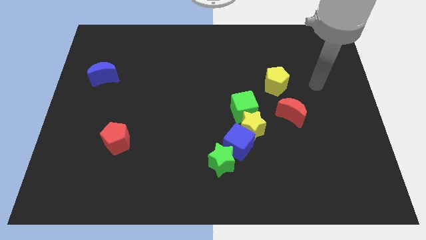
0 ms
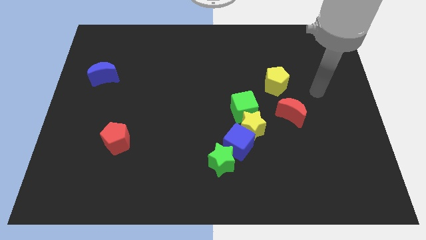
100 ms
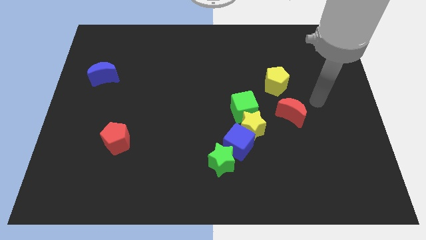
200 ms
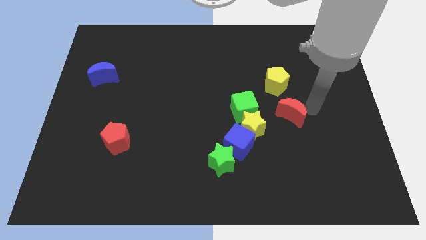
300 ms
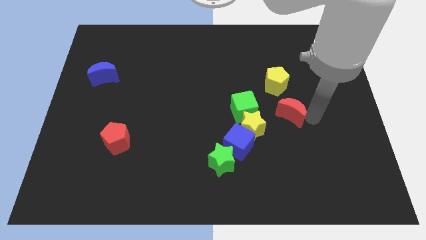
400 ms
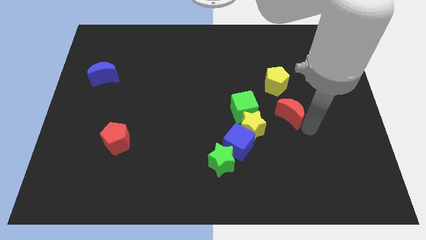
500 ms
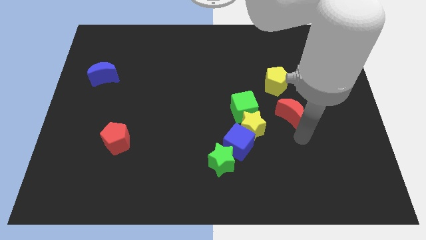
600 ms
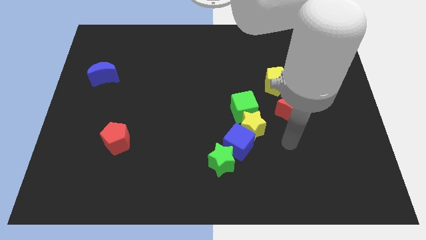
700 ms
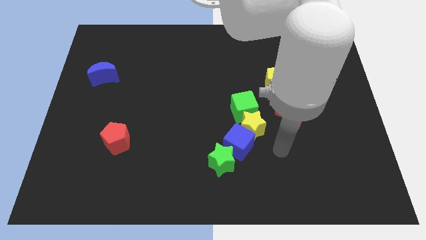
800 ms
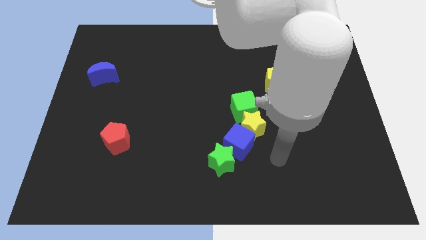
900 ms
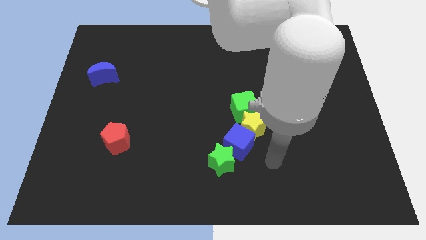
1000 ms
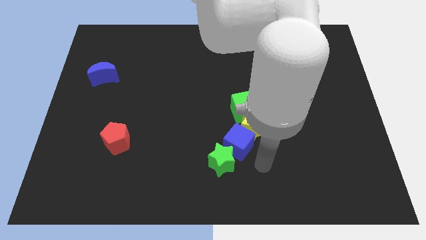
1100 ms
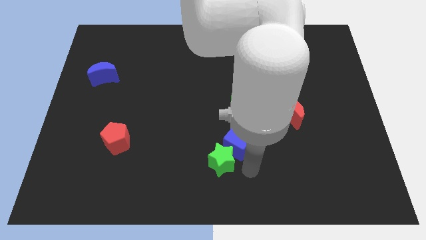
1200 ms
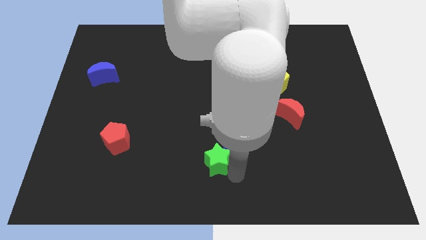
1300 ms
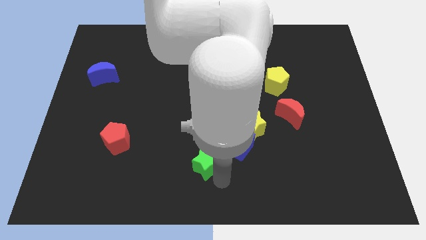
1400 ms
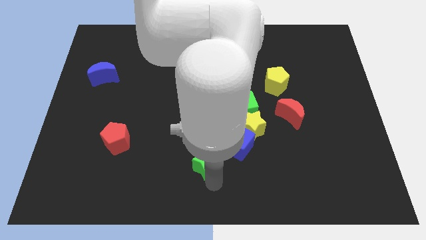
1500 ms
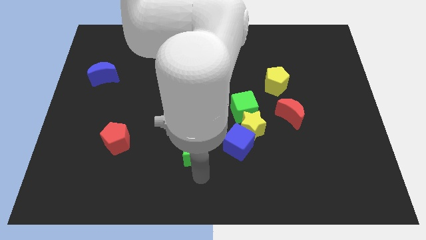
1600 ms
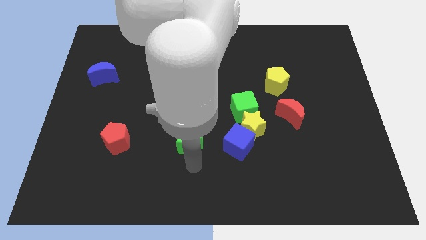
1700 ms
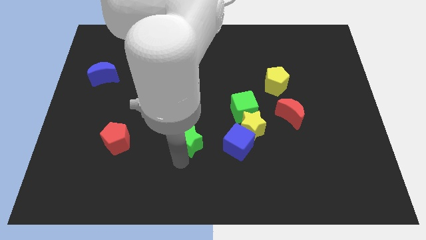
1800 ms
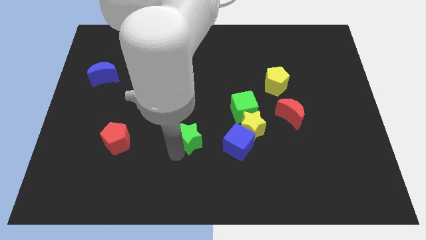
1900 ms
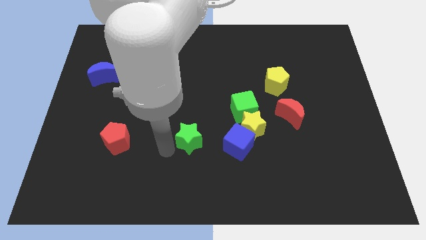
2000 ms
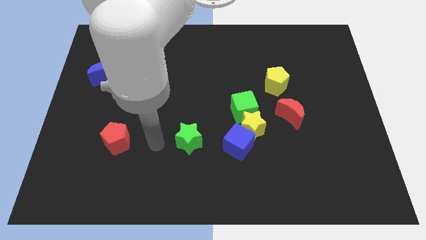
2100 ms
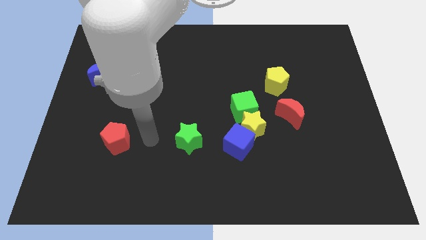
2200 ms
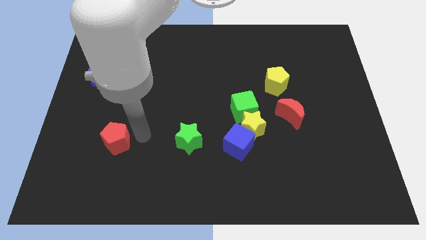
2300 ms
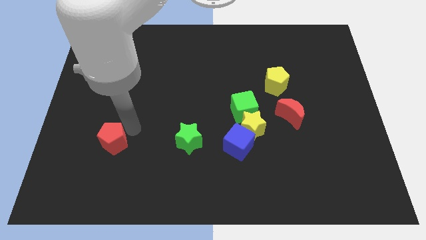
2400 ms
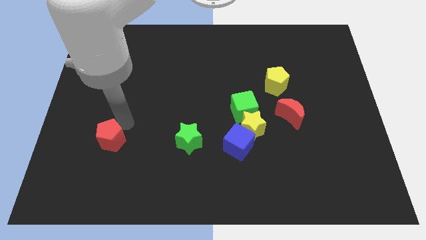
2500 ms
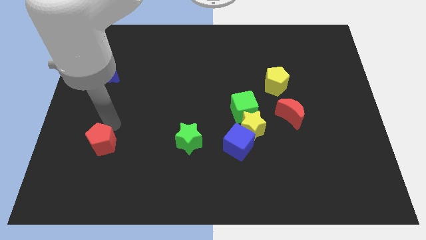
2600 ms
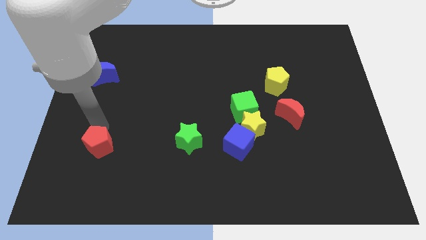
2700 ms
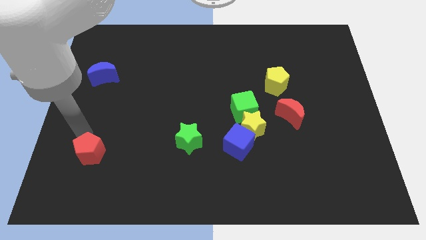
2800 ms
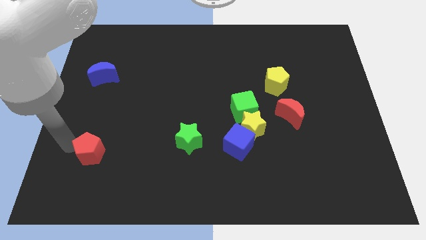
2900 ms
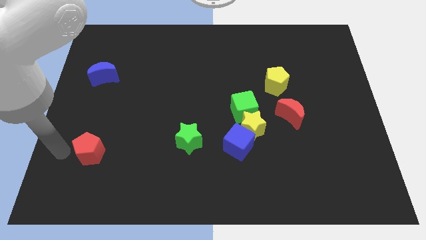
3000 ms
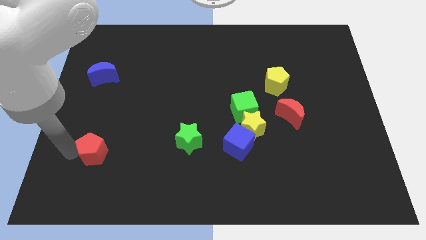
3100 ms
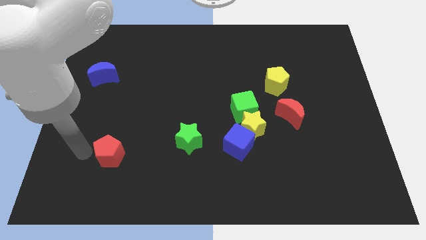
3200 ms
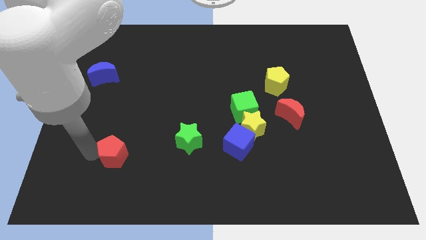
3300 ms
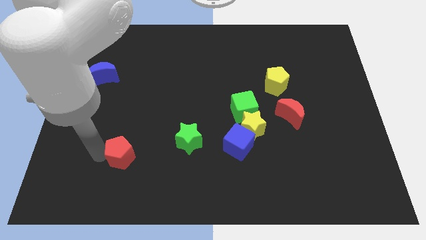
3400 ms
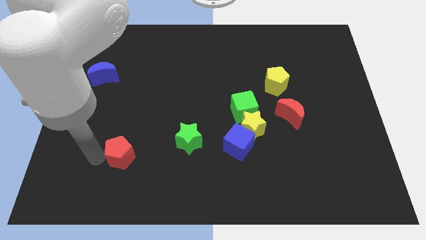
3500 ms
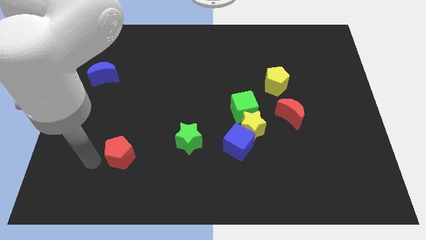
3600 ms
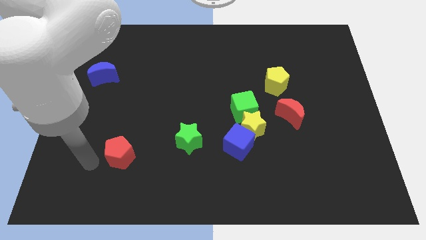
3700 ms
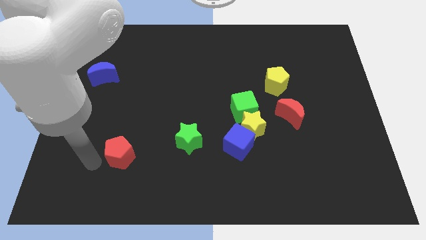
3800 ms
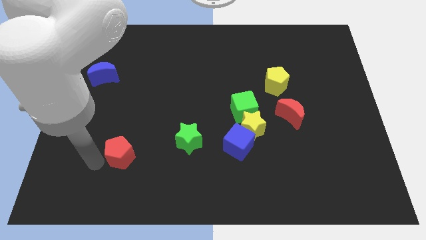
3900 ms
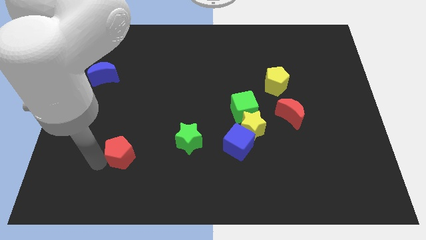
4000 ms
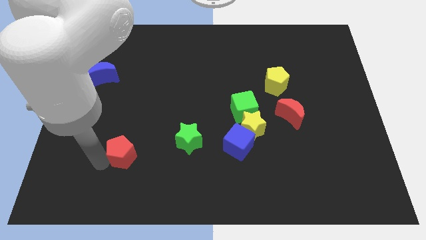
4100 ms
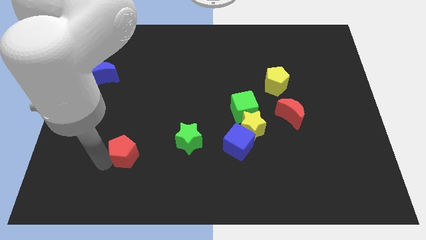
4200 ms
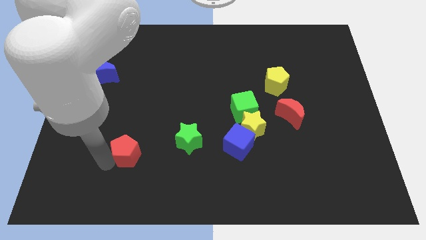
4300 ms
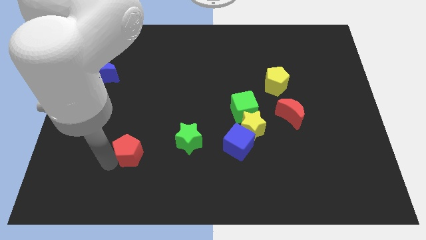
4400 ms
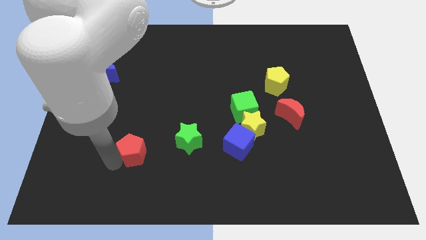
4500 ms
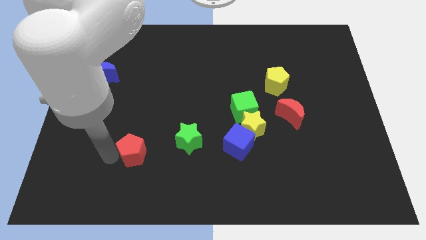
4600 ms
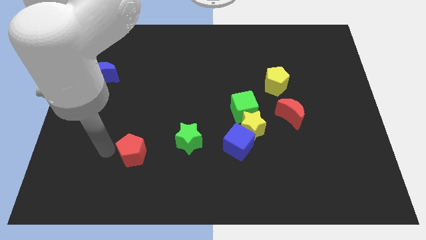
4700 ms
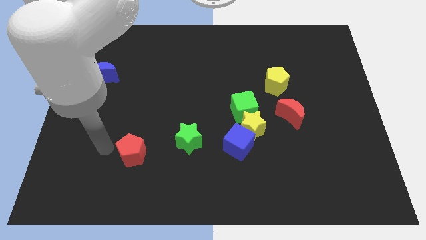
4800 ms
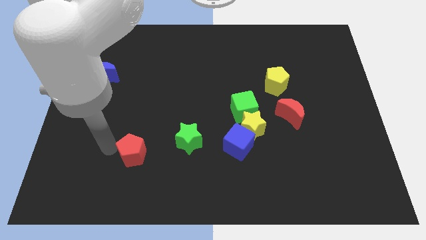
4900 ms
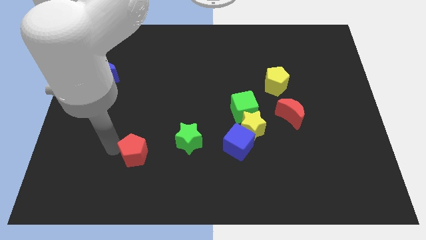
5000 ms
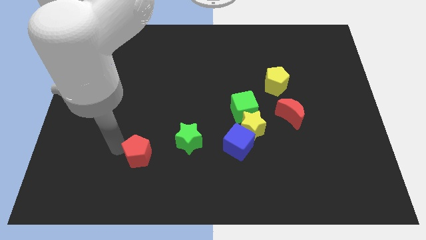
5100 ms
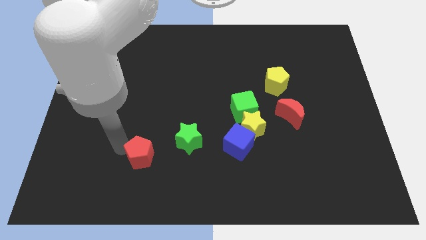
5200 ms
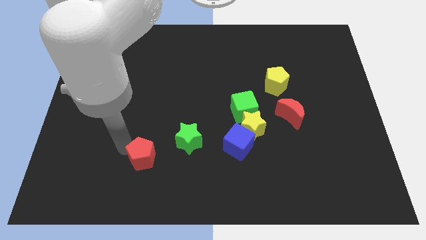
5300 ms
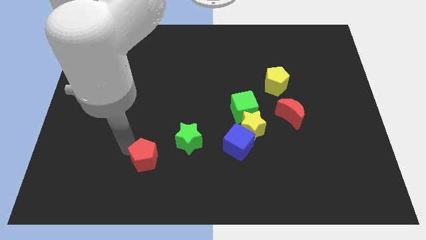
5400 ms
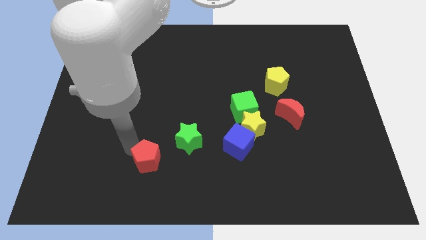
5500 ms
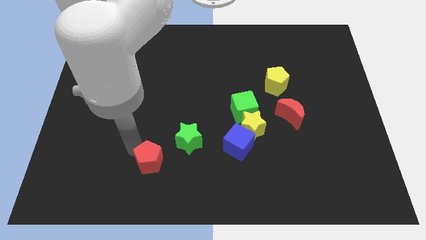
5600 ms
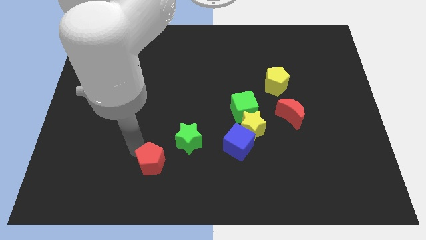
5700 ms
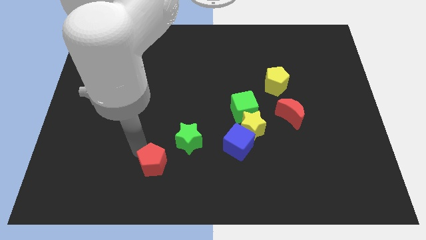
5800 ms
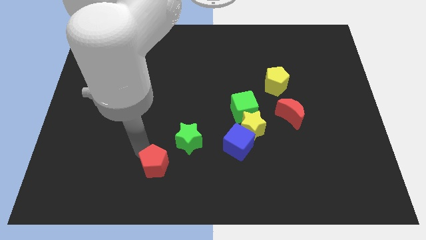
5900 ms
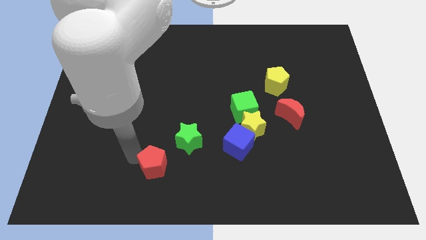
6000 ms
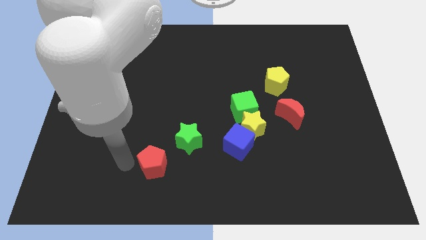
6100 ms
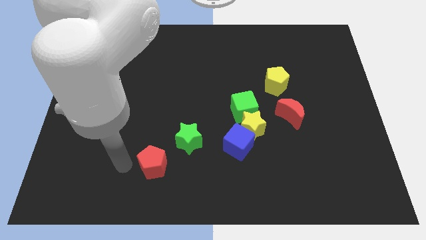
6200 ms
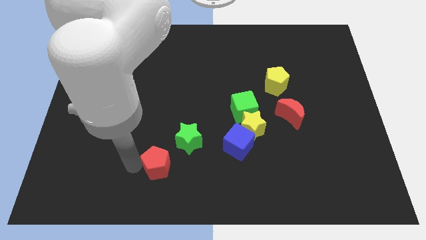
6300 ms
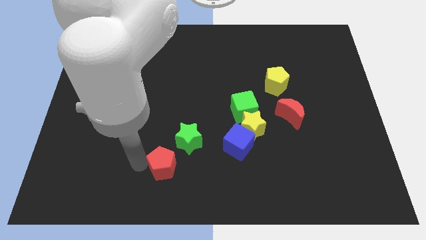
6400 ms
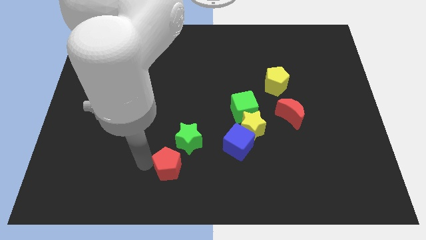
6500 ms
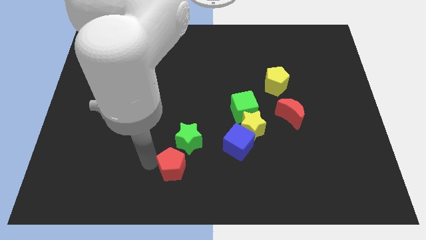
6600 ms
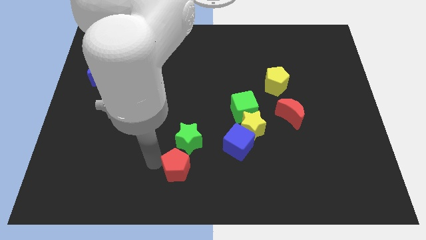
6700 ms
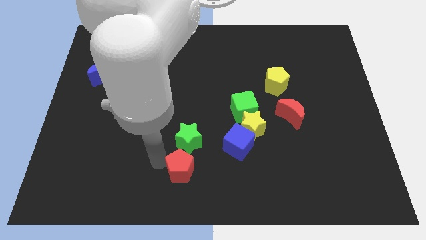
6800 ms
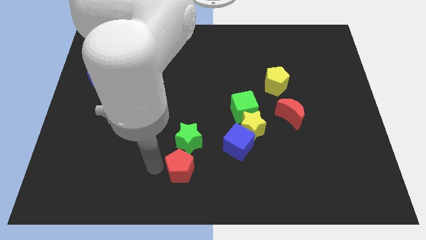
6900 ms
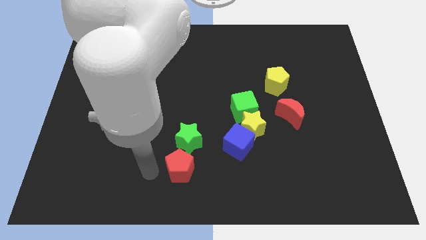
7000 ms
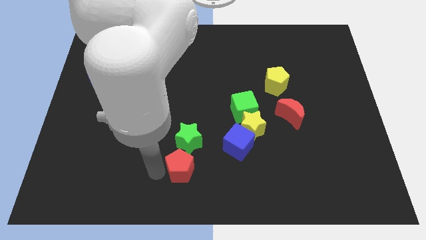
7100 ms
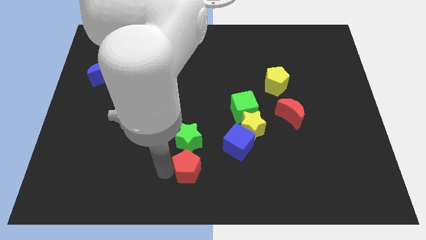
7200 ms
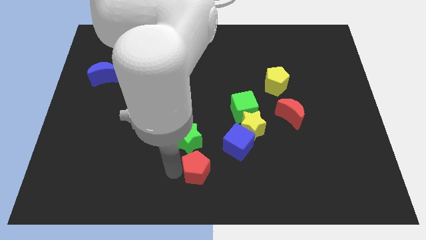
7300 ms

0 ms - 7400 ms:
slide the red pentagon to the bottom left side of the blue cube

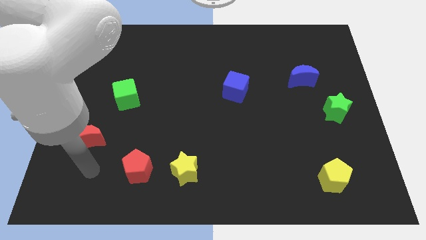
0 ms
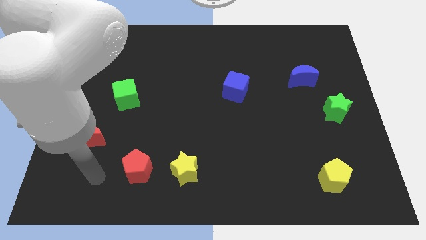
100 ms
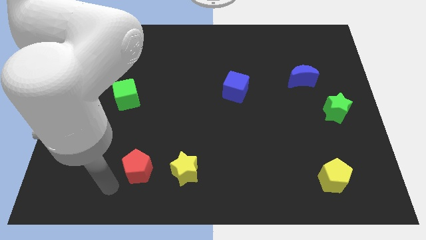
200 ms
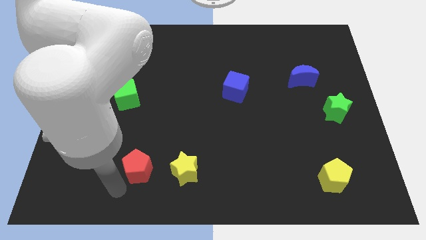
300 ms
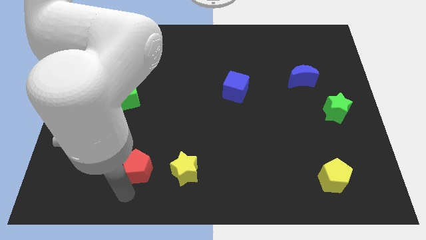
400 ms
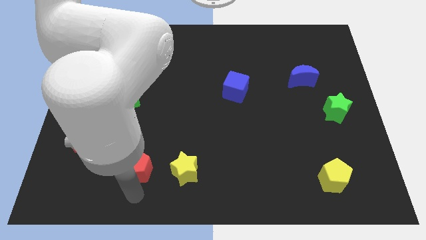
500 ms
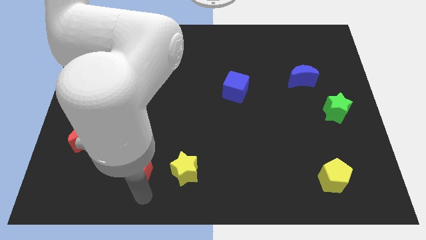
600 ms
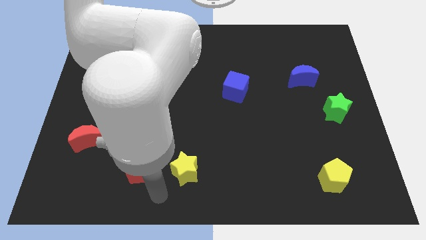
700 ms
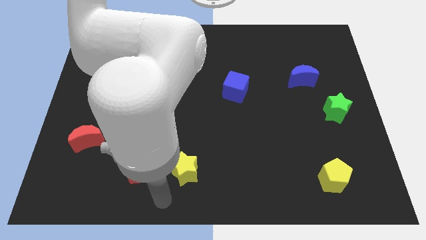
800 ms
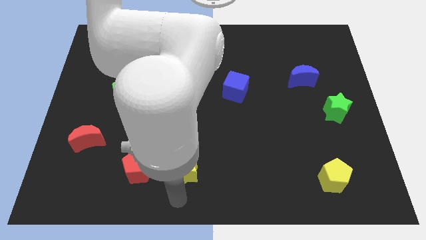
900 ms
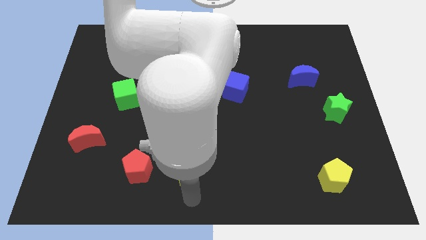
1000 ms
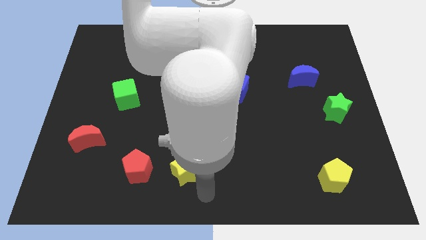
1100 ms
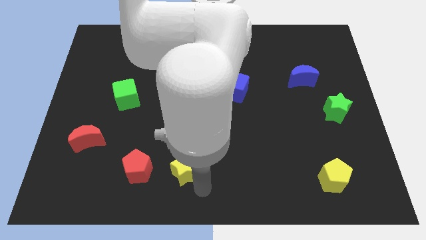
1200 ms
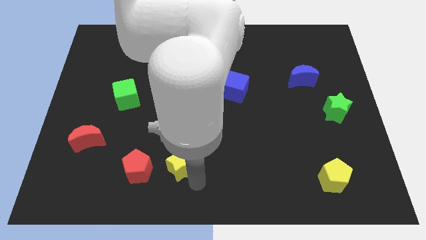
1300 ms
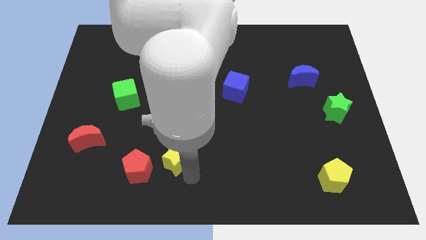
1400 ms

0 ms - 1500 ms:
push the yellow star to the top right of the red pentagon
